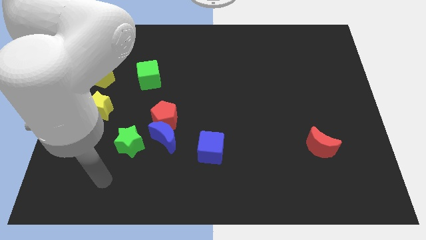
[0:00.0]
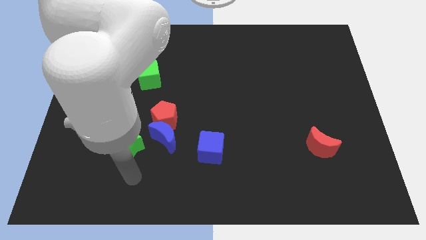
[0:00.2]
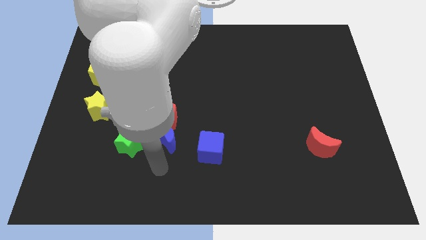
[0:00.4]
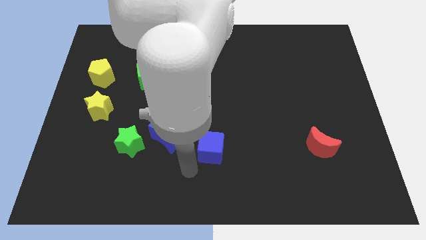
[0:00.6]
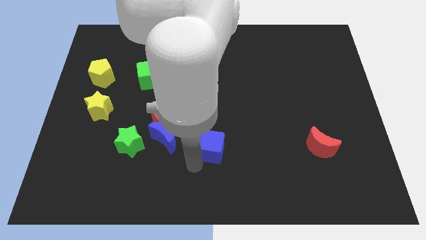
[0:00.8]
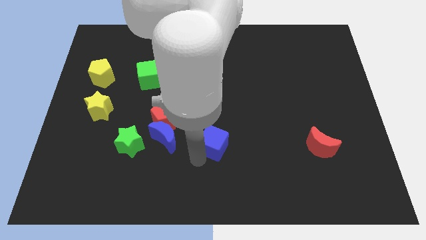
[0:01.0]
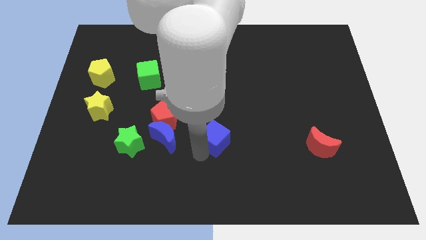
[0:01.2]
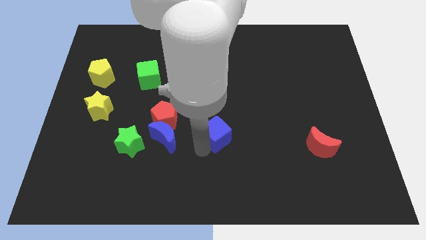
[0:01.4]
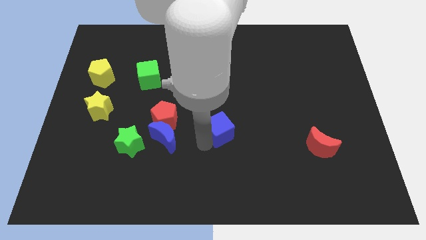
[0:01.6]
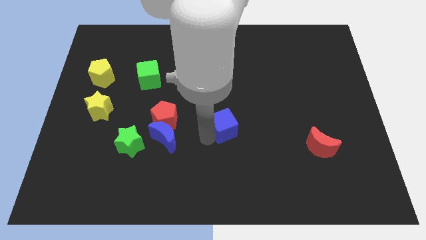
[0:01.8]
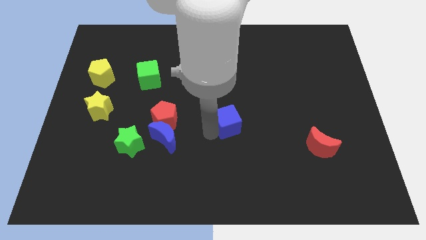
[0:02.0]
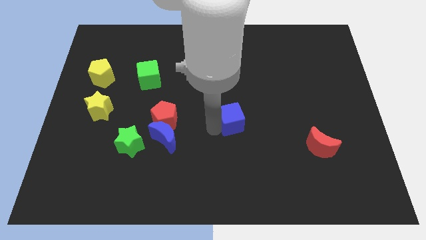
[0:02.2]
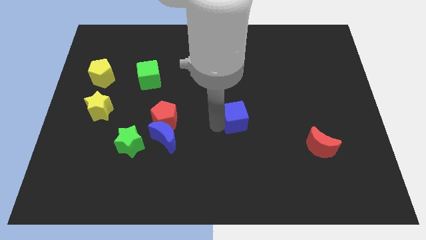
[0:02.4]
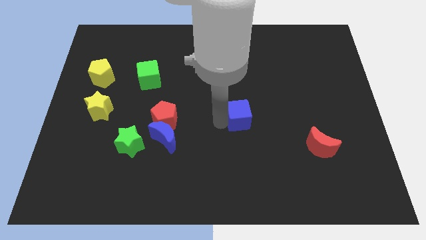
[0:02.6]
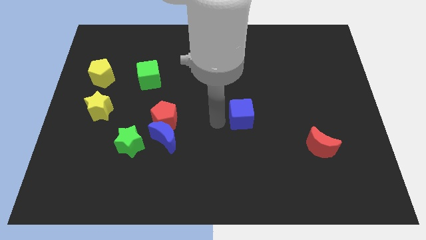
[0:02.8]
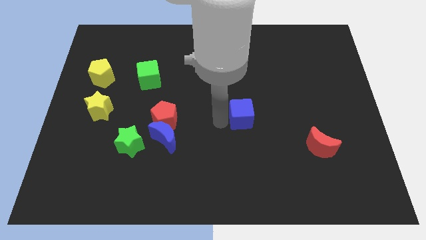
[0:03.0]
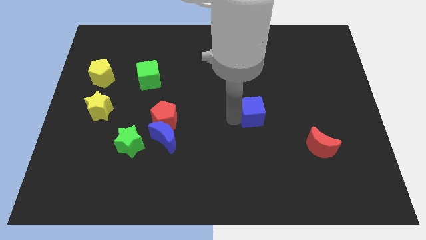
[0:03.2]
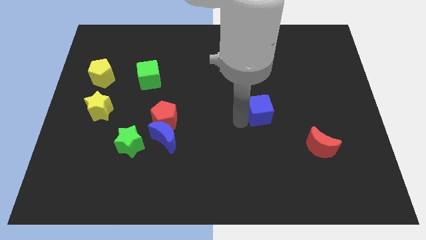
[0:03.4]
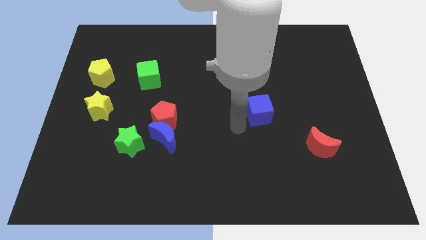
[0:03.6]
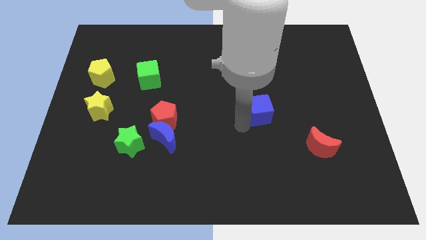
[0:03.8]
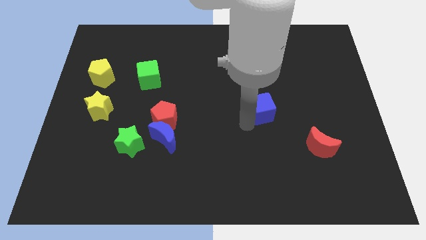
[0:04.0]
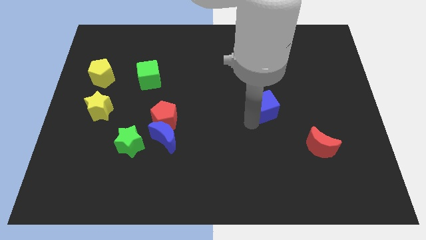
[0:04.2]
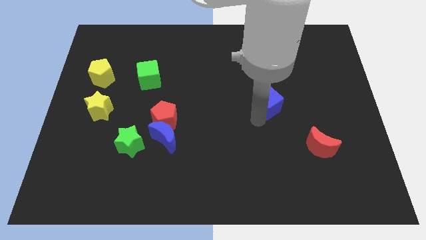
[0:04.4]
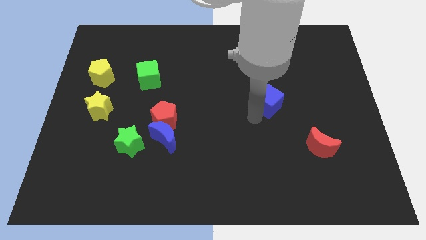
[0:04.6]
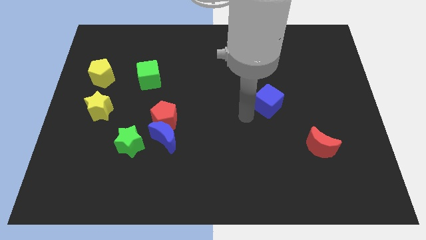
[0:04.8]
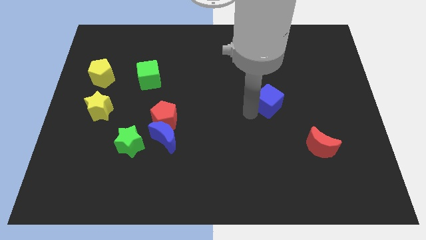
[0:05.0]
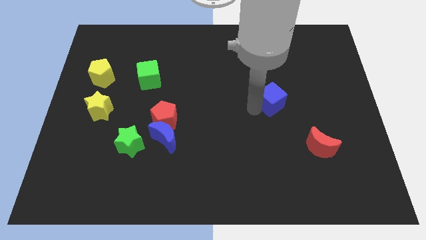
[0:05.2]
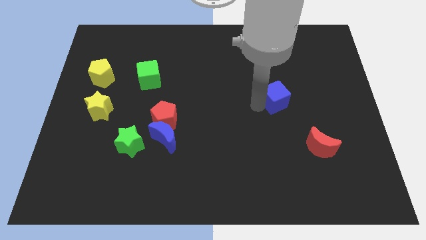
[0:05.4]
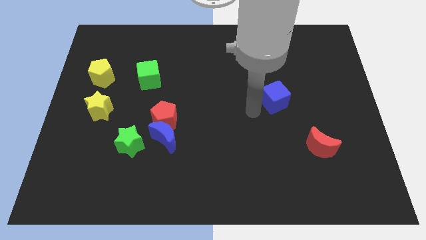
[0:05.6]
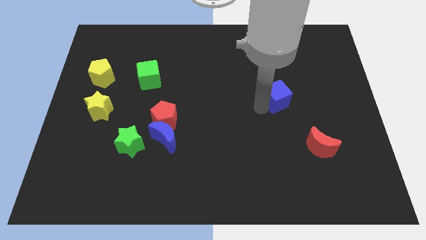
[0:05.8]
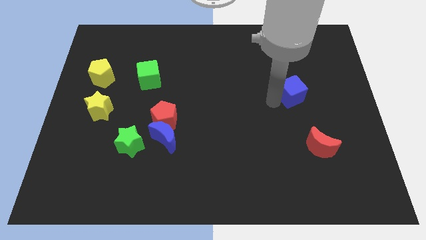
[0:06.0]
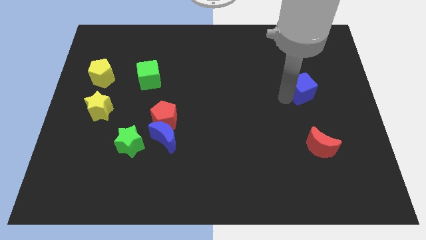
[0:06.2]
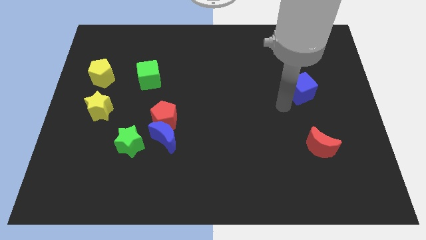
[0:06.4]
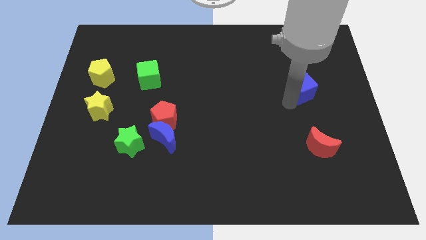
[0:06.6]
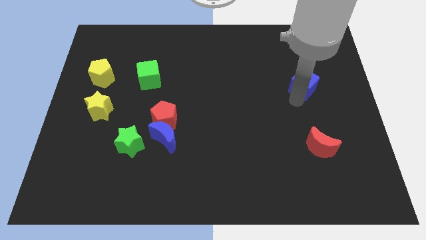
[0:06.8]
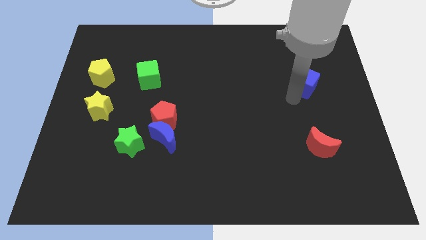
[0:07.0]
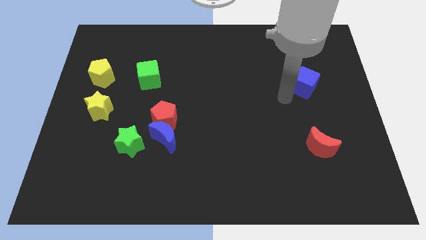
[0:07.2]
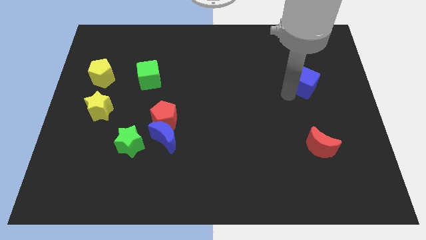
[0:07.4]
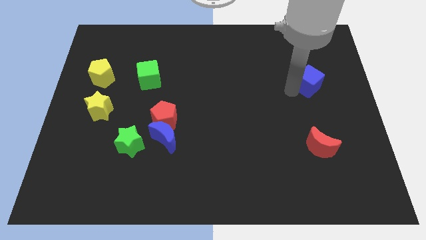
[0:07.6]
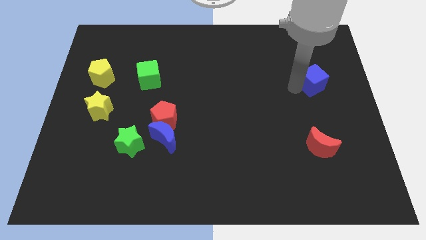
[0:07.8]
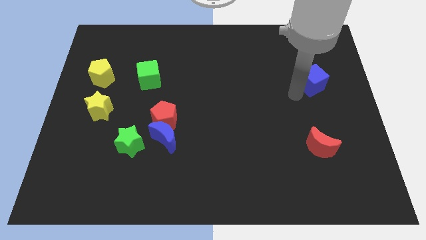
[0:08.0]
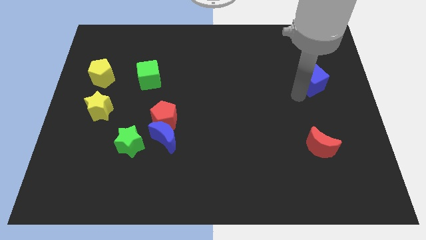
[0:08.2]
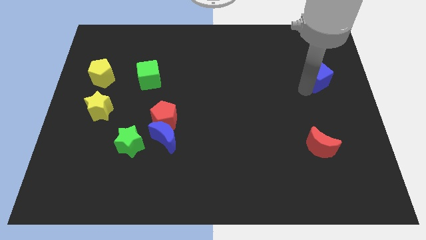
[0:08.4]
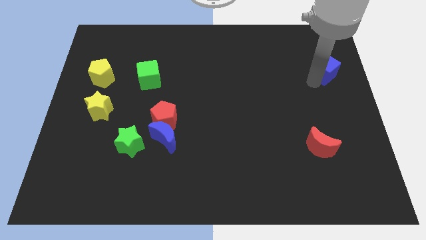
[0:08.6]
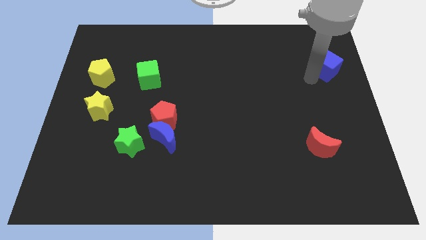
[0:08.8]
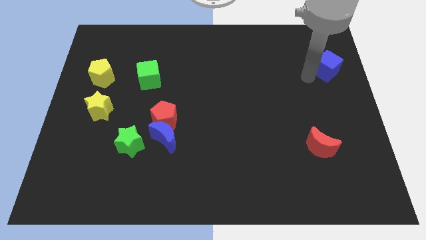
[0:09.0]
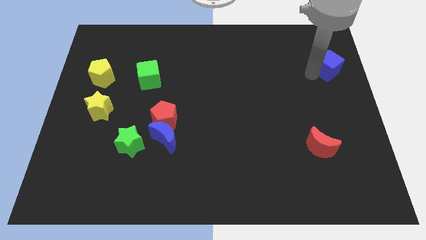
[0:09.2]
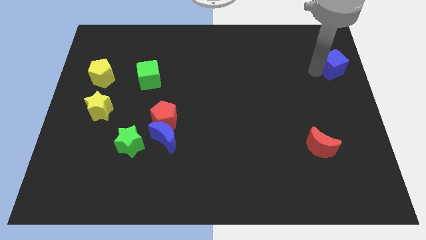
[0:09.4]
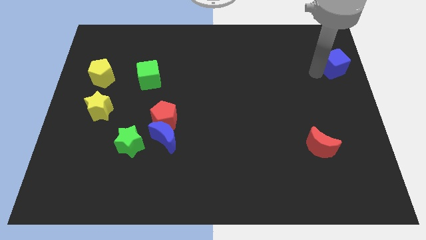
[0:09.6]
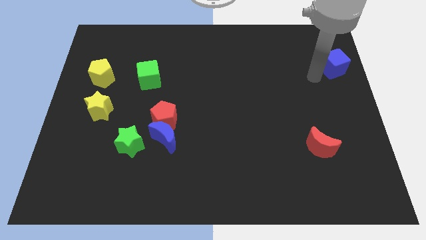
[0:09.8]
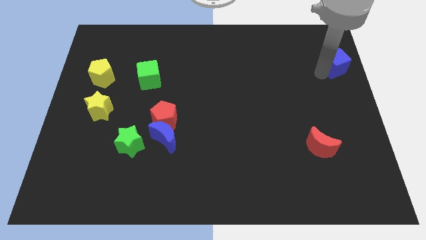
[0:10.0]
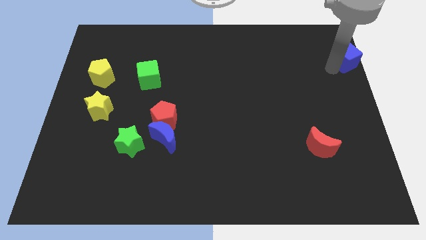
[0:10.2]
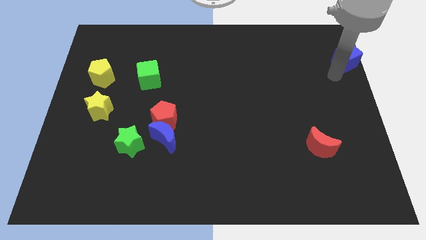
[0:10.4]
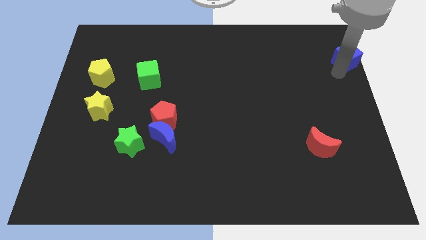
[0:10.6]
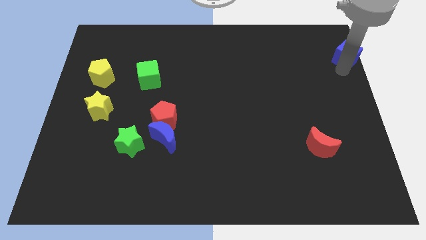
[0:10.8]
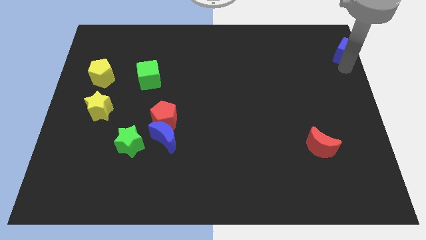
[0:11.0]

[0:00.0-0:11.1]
push the blue cube to the upper right corner

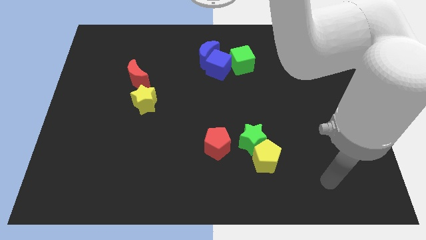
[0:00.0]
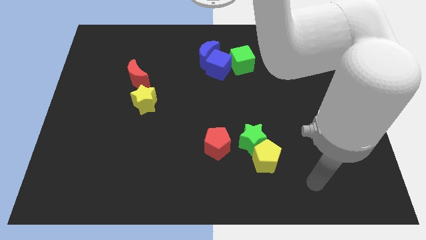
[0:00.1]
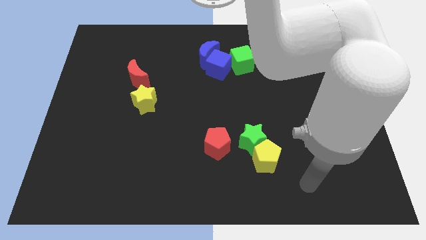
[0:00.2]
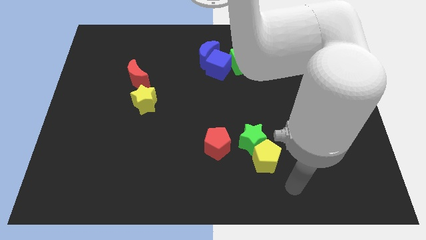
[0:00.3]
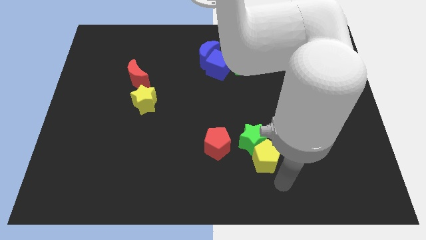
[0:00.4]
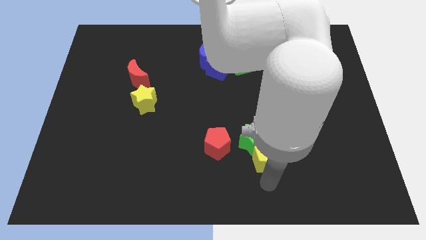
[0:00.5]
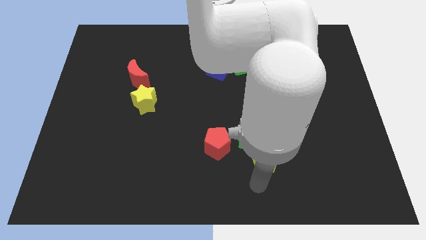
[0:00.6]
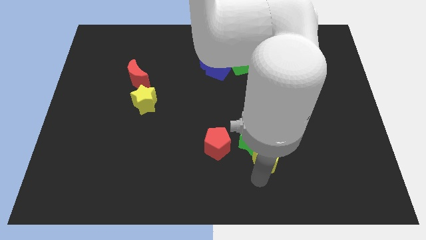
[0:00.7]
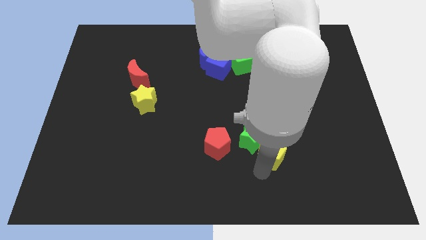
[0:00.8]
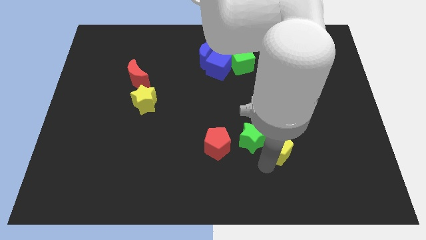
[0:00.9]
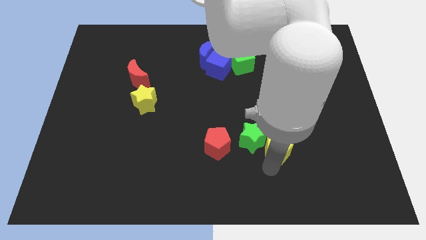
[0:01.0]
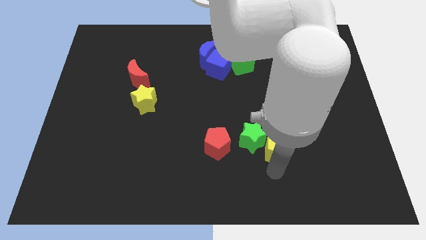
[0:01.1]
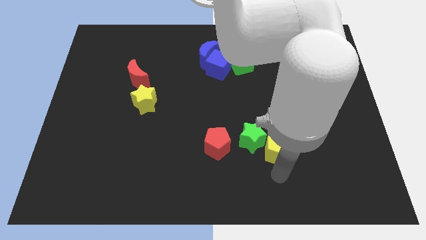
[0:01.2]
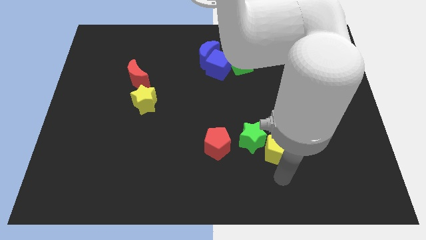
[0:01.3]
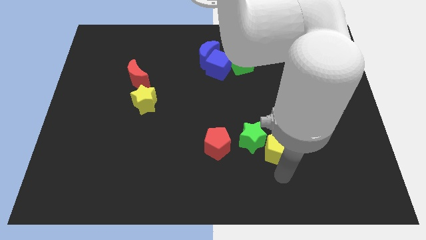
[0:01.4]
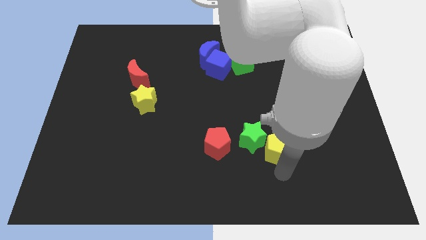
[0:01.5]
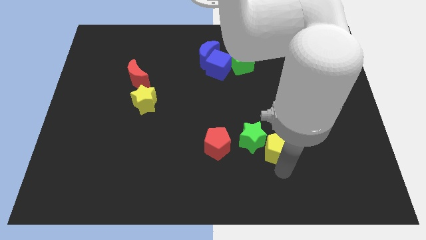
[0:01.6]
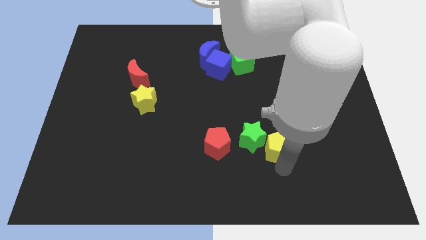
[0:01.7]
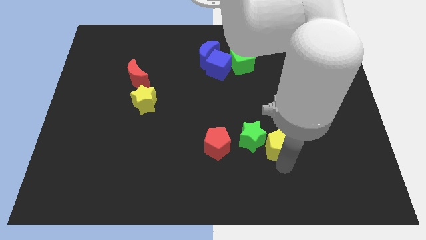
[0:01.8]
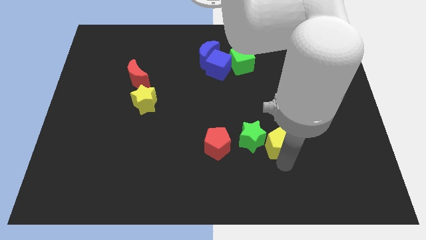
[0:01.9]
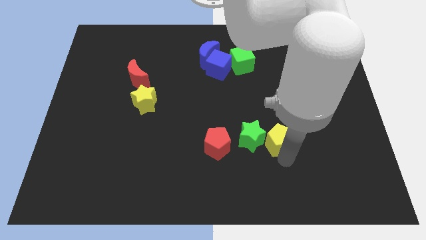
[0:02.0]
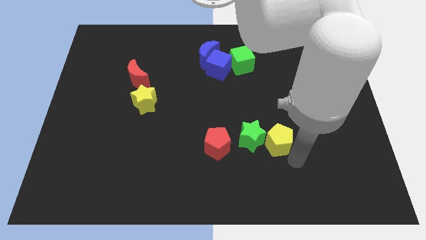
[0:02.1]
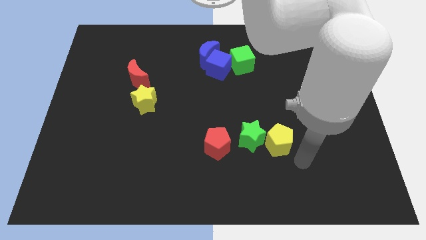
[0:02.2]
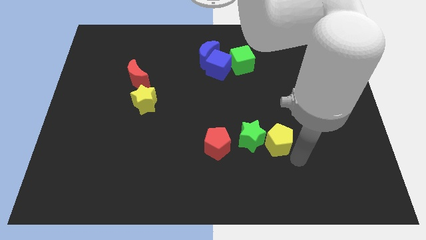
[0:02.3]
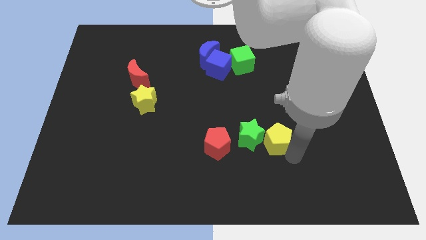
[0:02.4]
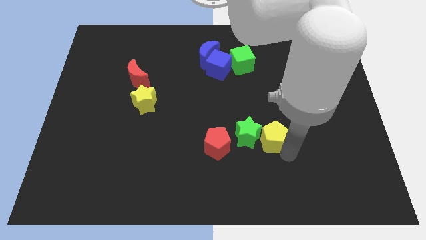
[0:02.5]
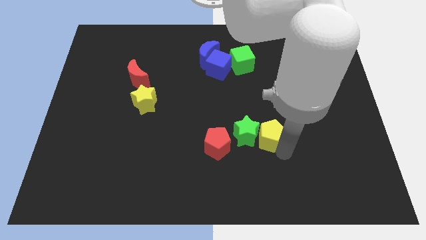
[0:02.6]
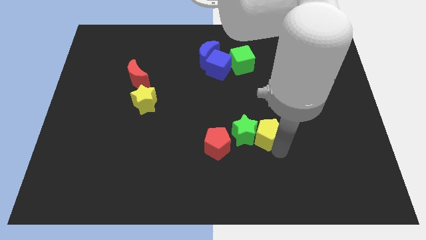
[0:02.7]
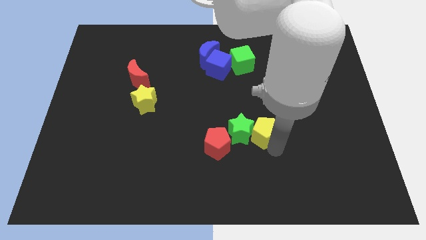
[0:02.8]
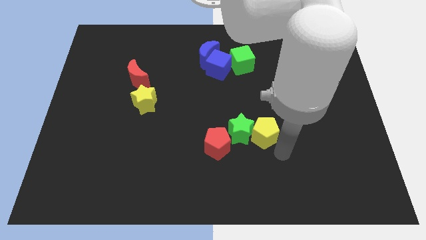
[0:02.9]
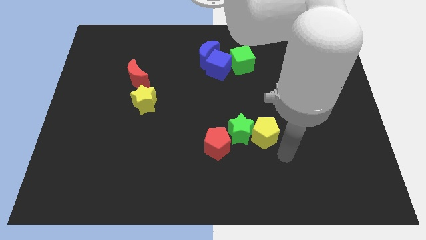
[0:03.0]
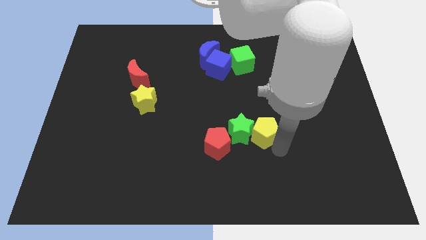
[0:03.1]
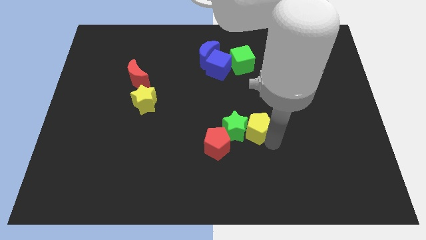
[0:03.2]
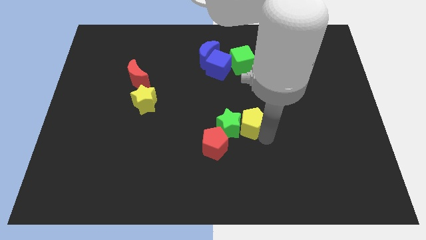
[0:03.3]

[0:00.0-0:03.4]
slide the yellow pentagon to the middle of the board
